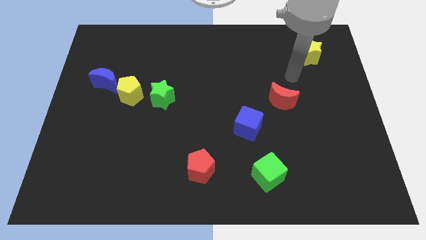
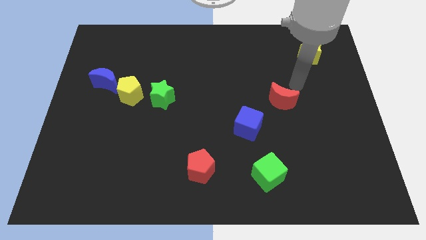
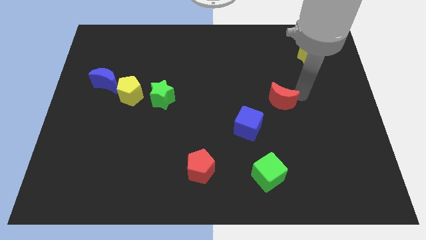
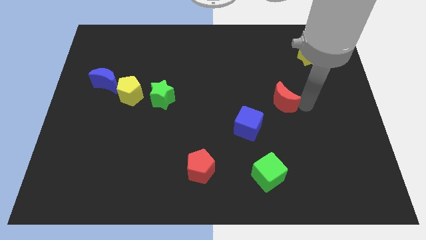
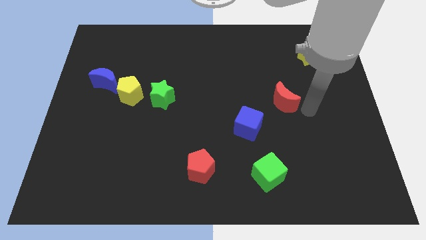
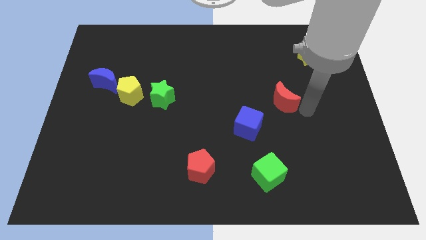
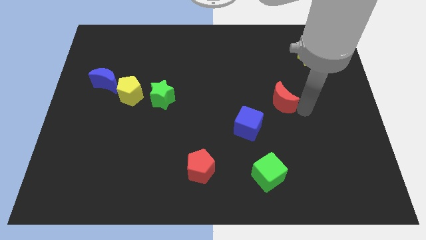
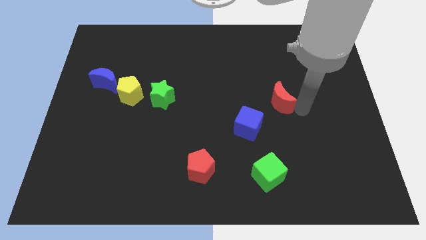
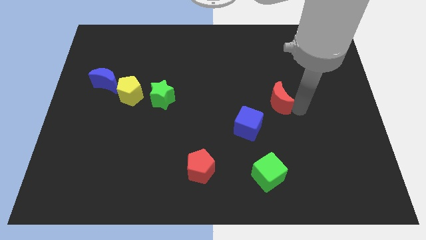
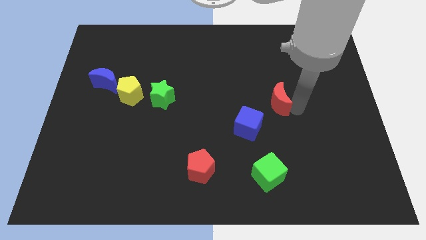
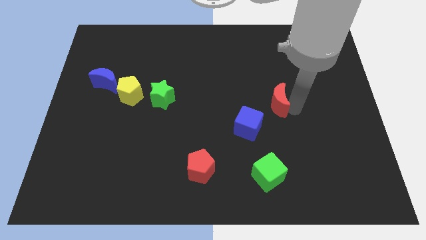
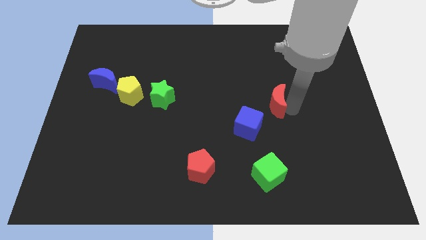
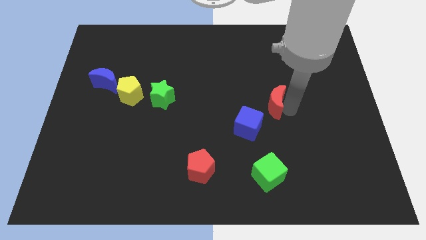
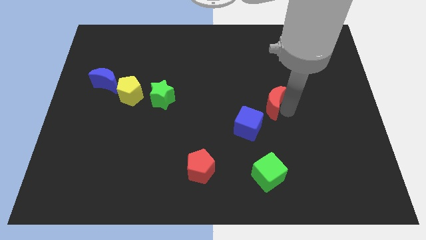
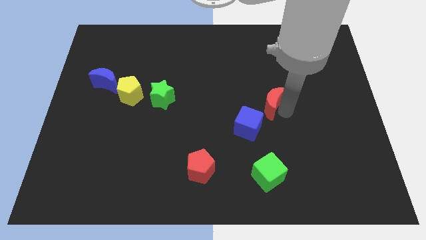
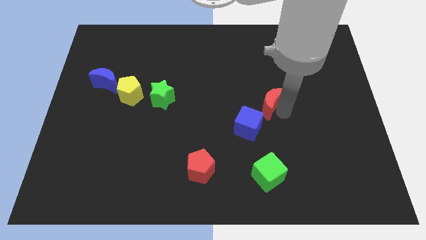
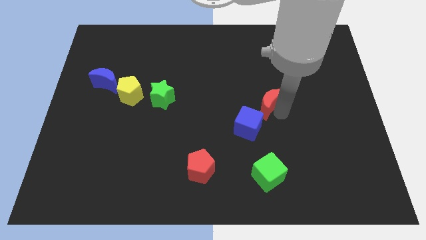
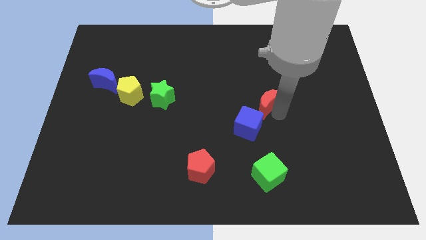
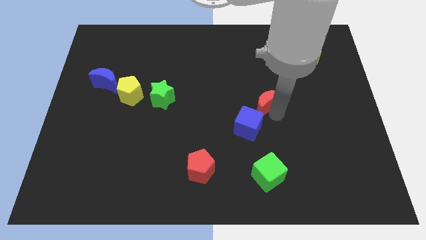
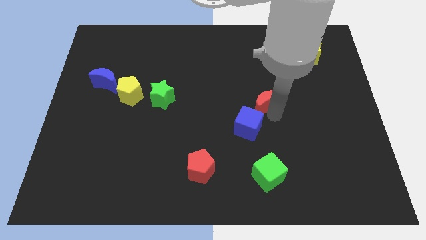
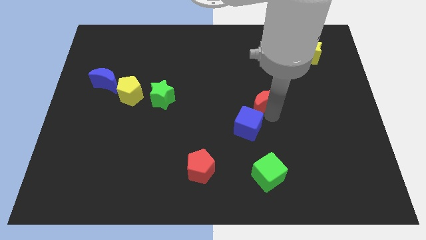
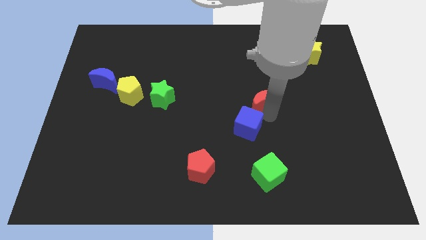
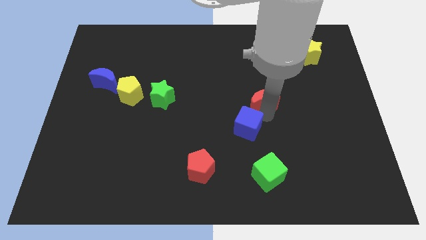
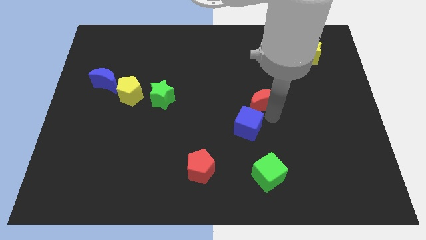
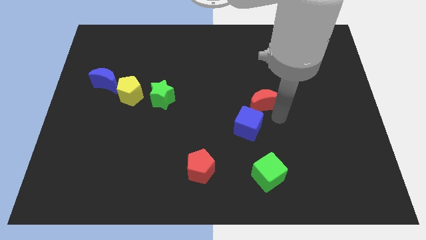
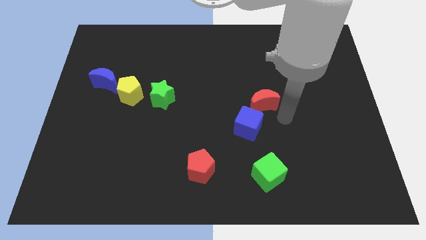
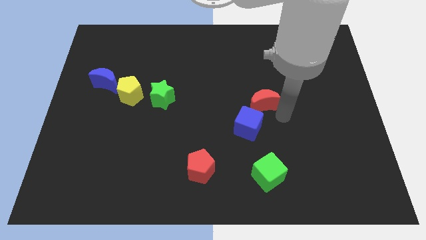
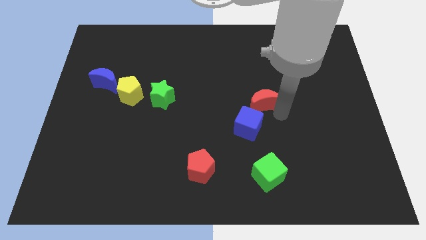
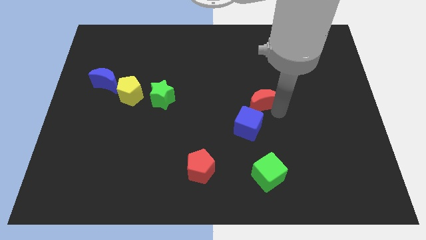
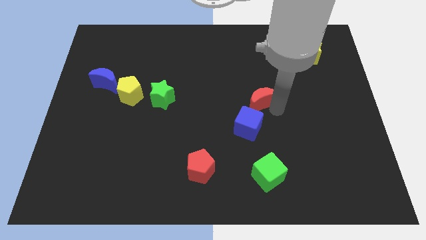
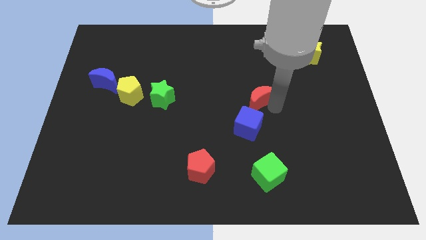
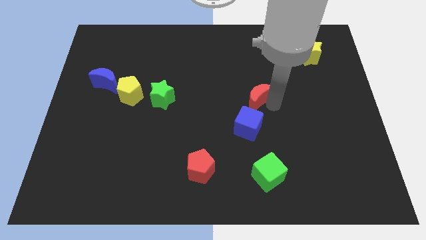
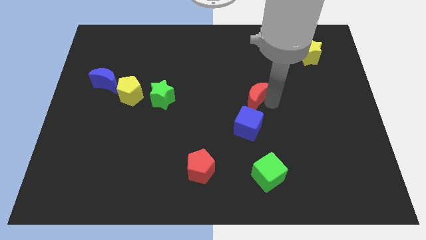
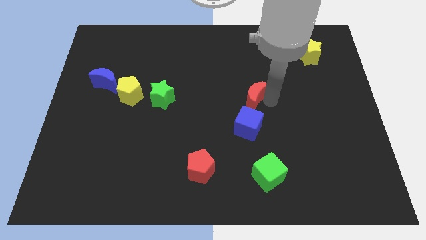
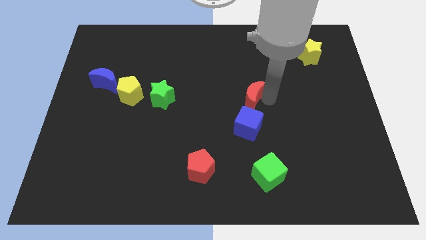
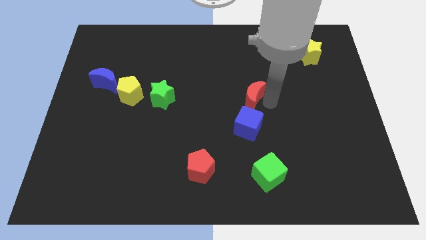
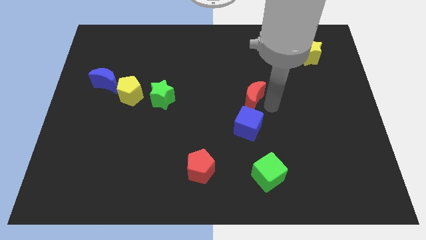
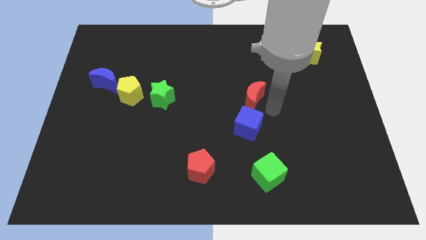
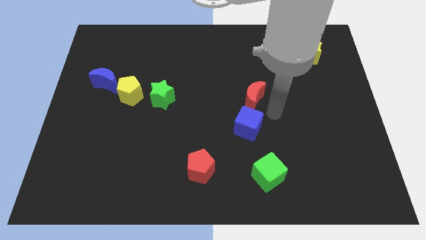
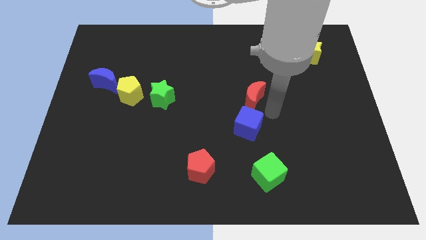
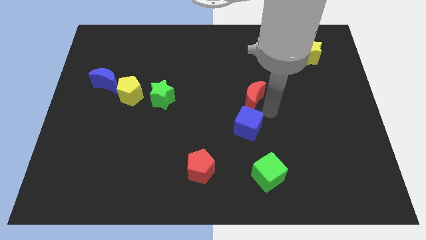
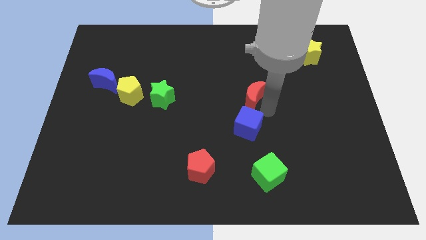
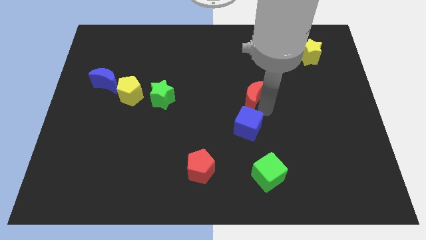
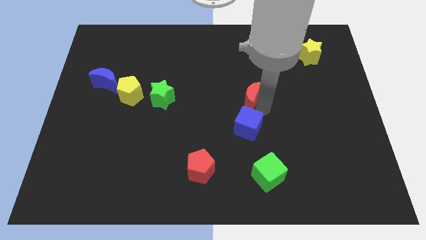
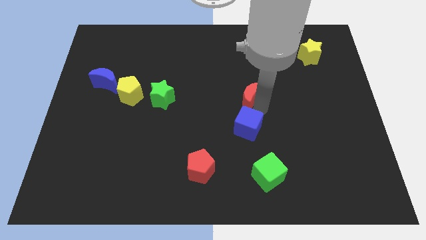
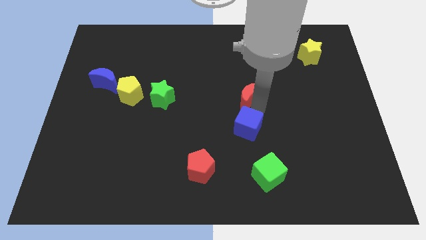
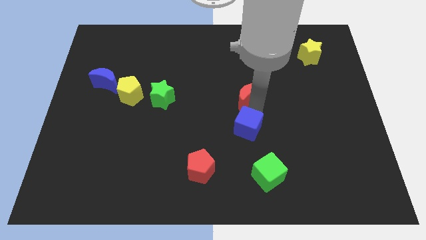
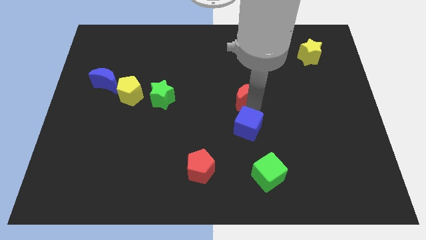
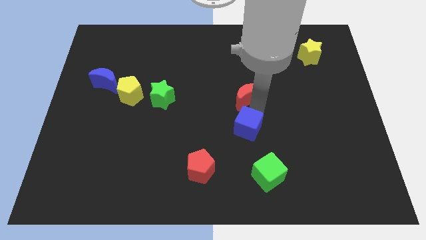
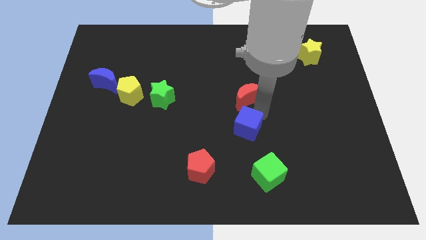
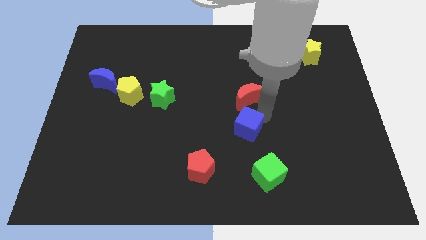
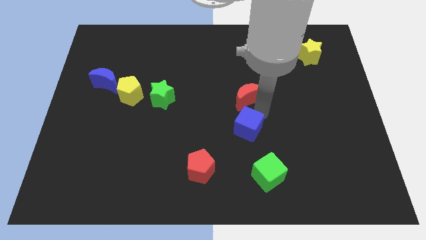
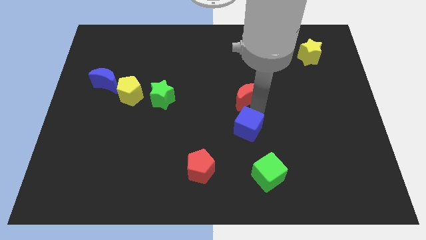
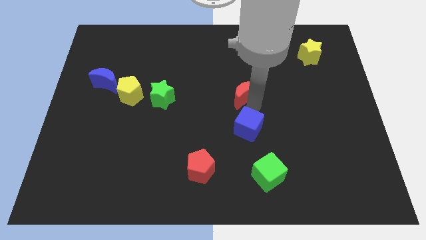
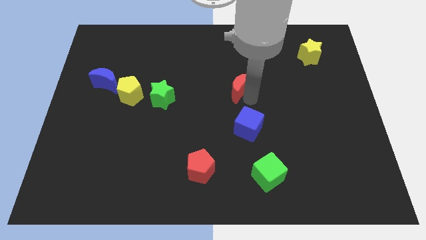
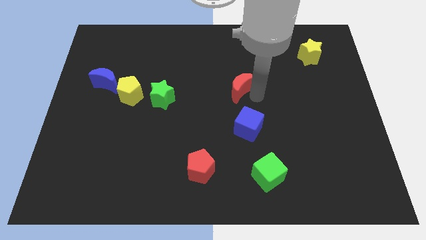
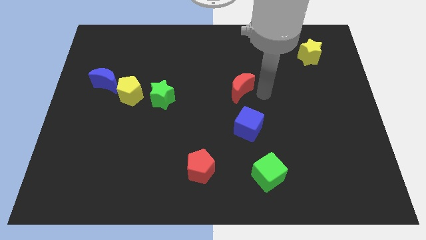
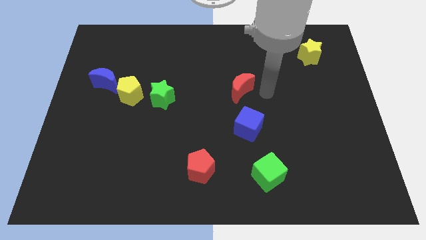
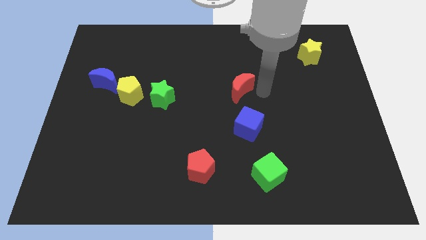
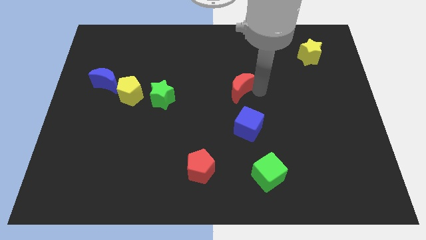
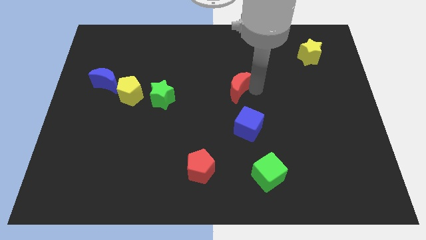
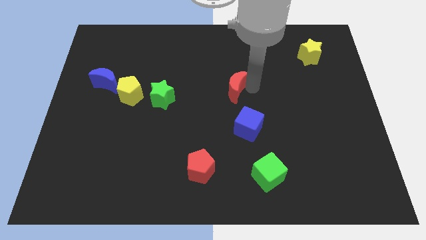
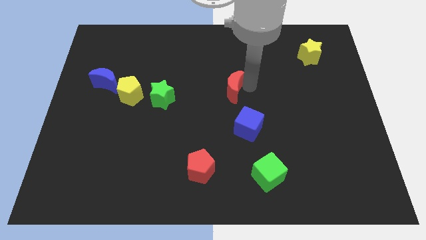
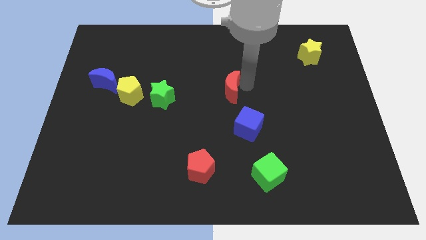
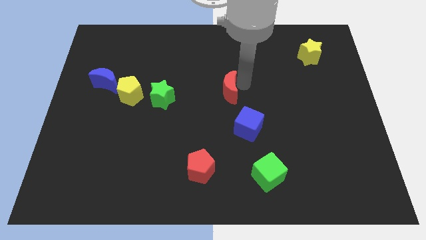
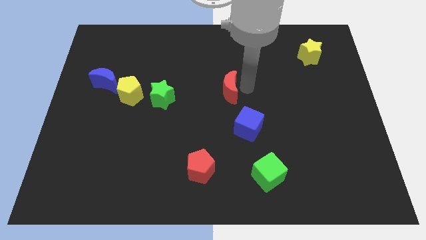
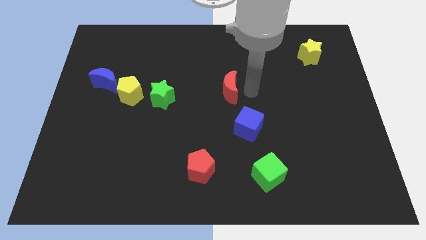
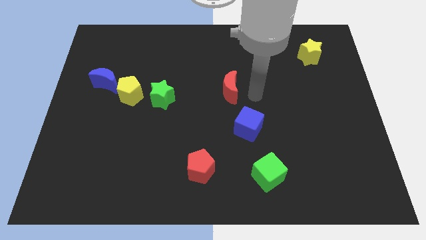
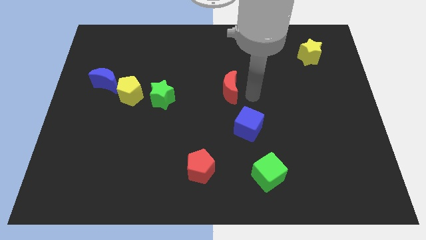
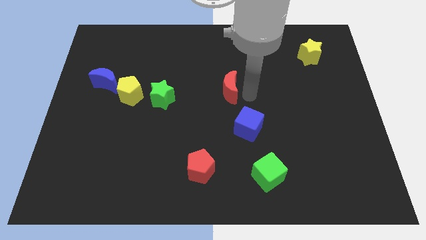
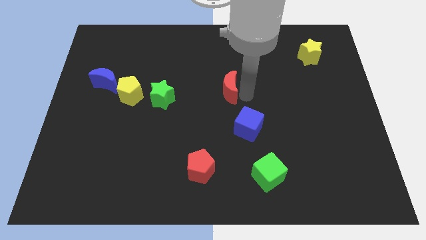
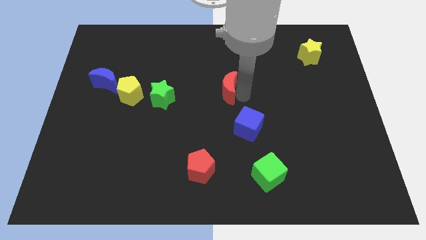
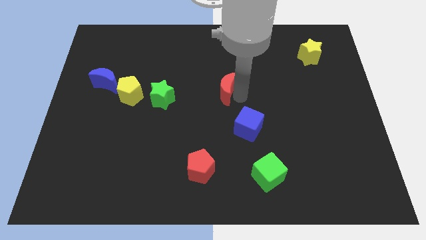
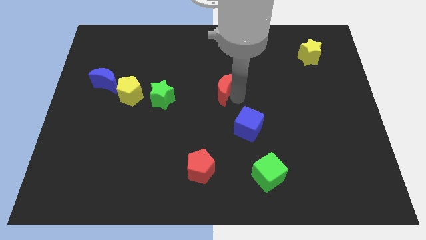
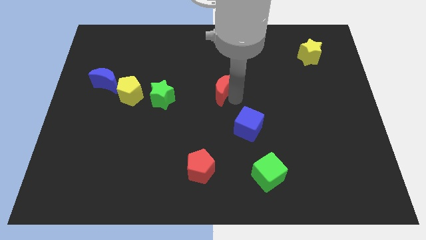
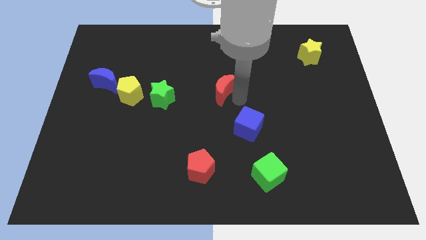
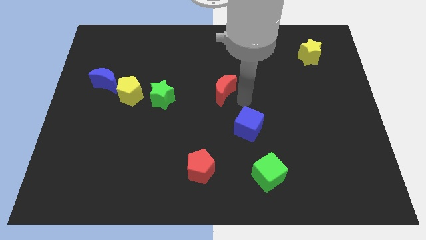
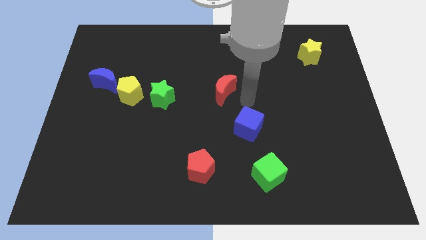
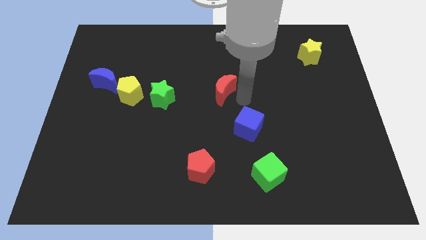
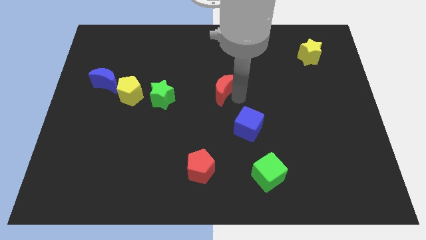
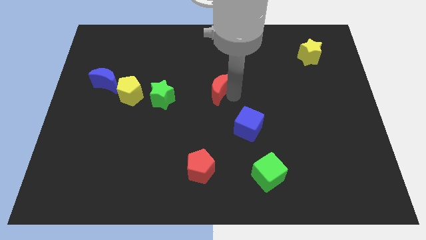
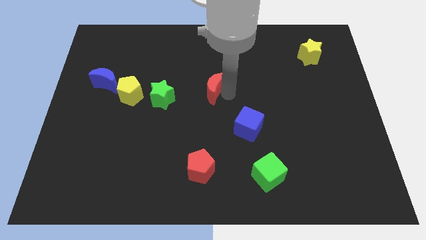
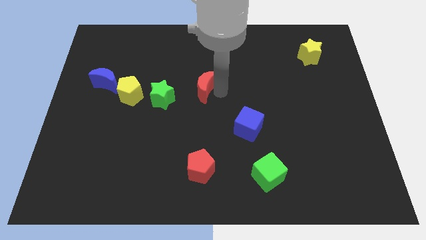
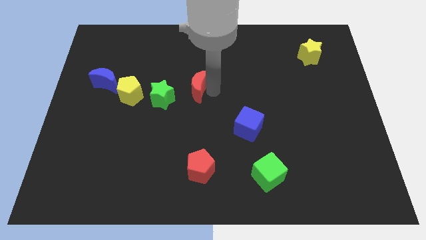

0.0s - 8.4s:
slide the red moon to the top right side of the green star
